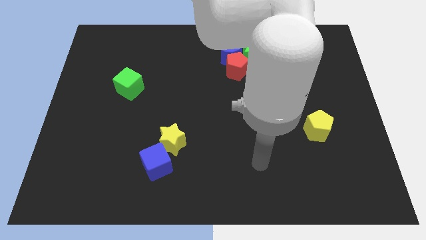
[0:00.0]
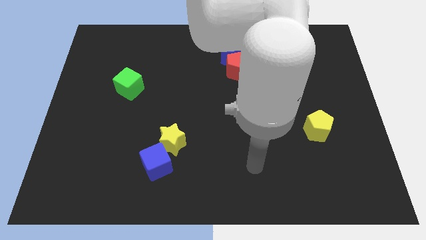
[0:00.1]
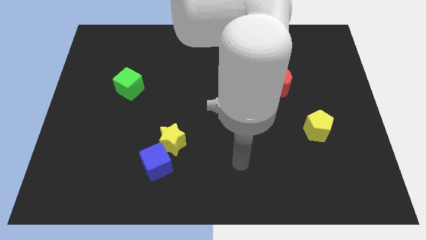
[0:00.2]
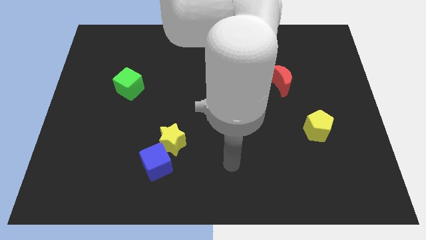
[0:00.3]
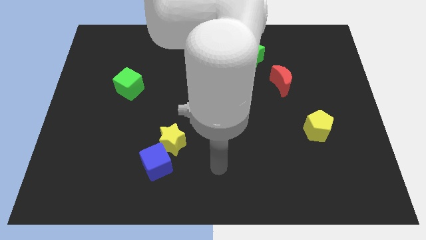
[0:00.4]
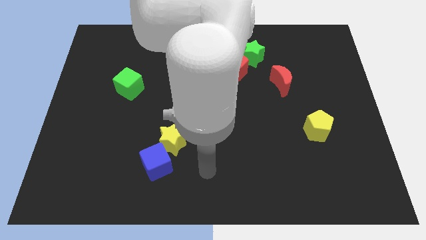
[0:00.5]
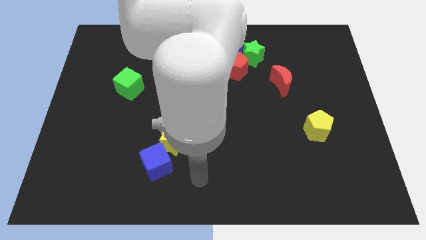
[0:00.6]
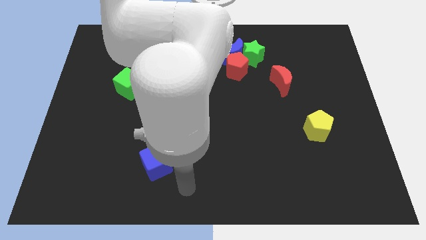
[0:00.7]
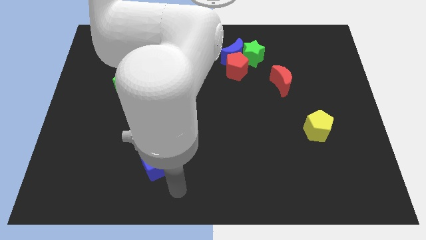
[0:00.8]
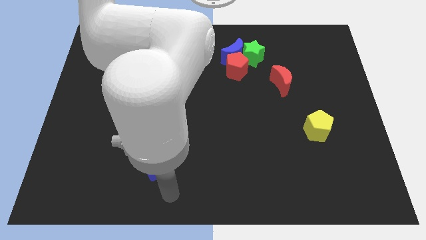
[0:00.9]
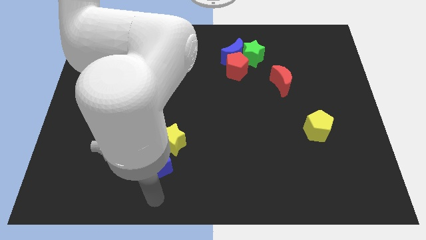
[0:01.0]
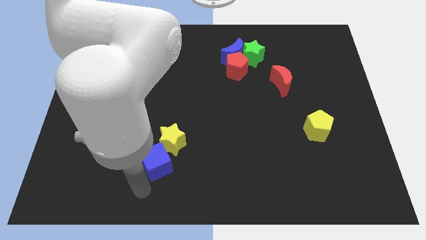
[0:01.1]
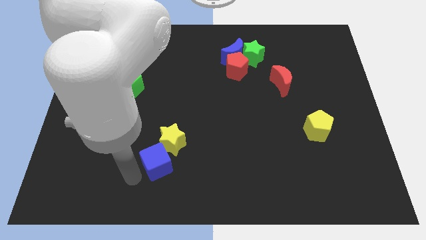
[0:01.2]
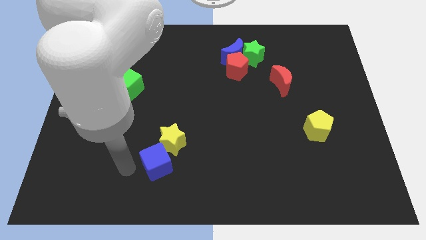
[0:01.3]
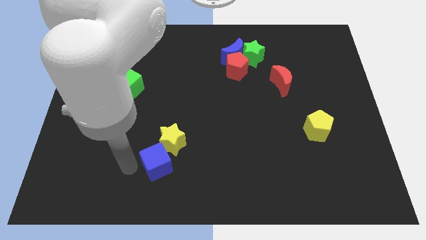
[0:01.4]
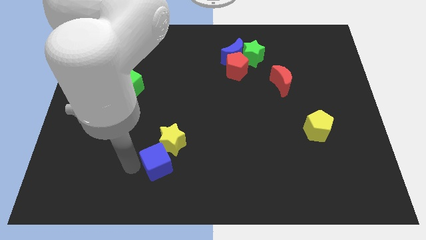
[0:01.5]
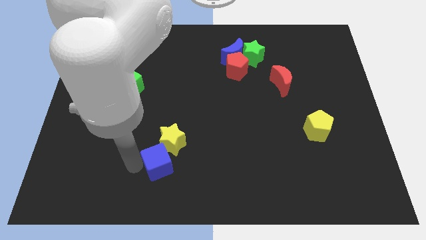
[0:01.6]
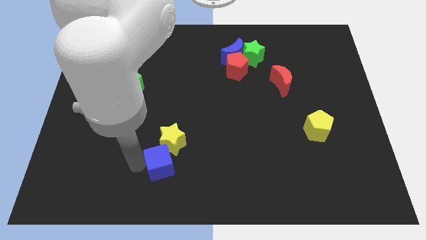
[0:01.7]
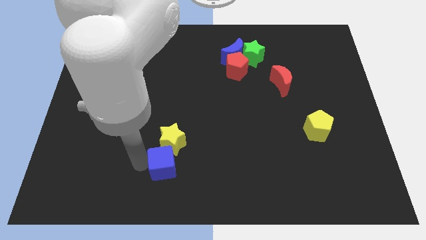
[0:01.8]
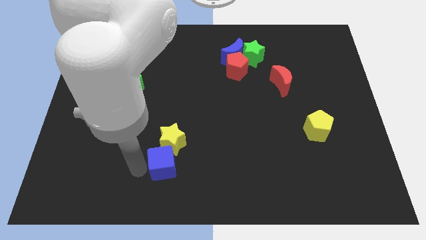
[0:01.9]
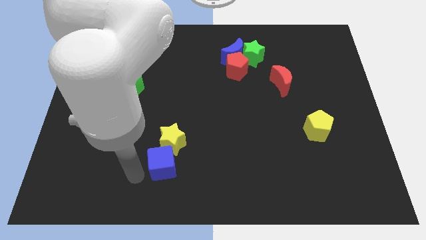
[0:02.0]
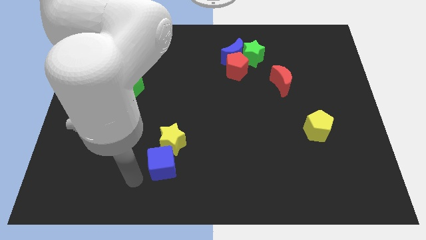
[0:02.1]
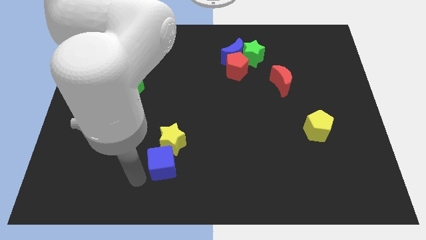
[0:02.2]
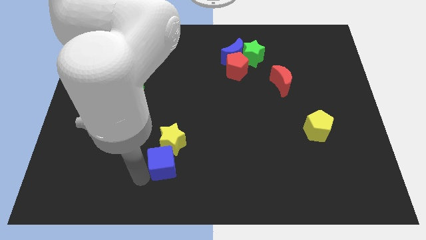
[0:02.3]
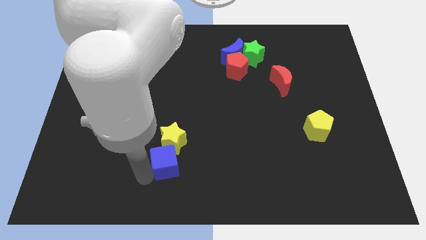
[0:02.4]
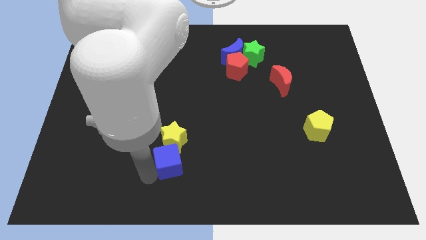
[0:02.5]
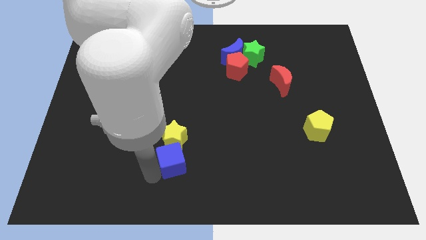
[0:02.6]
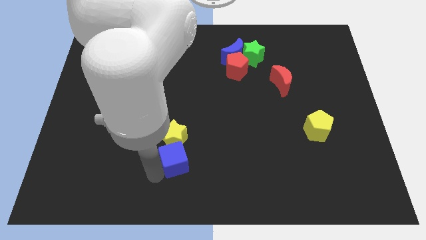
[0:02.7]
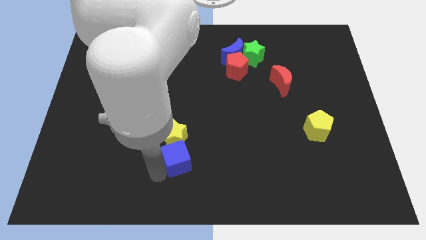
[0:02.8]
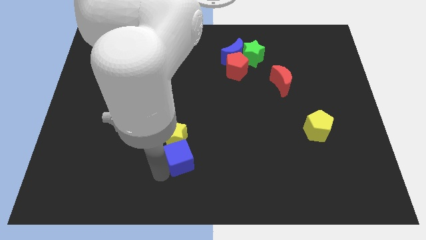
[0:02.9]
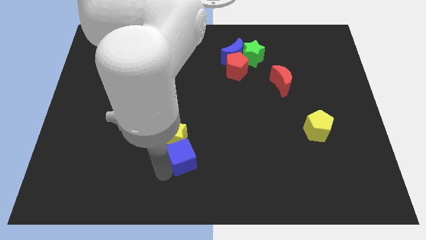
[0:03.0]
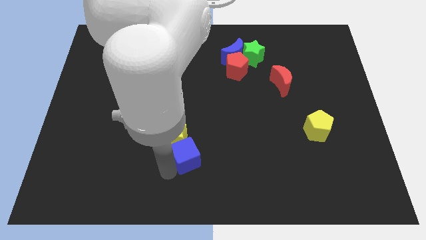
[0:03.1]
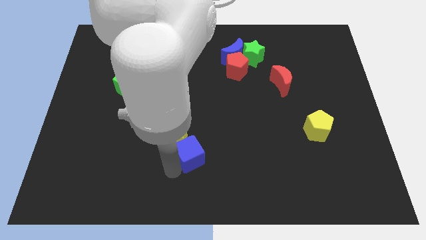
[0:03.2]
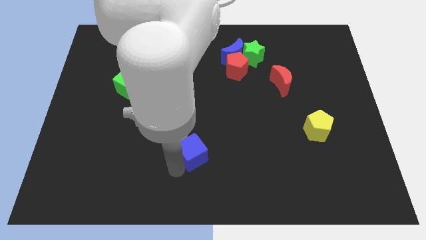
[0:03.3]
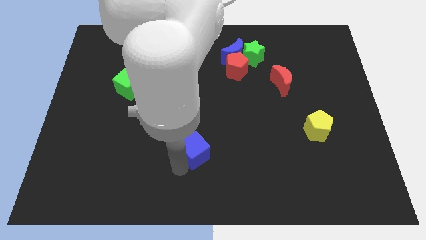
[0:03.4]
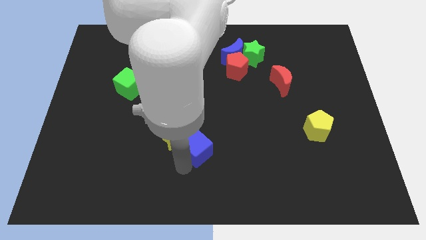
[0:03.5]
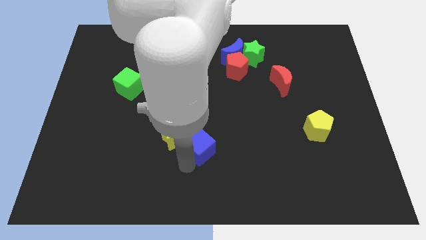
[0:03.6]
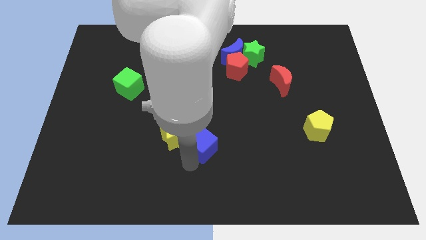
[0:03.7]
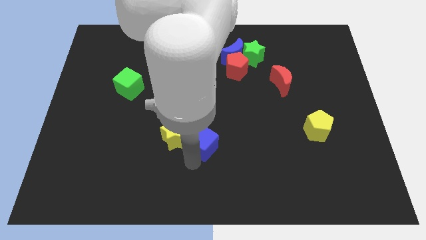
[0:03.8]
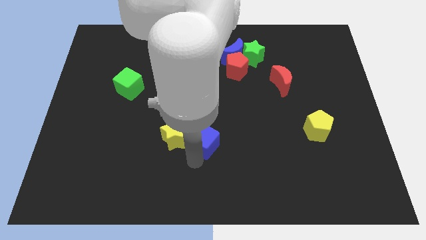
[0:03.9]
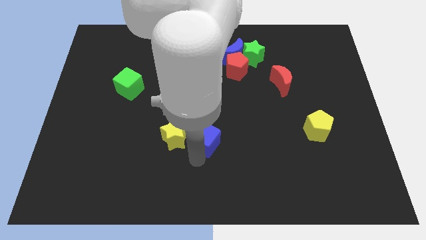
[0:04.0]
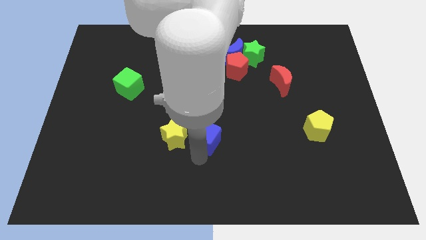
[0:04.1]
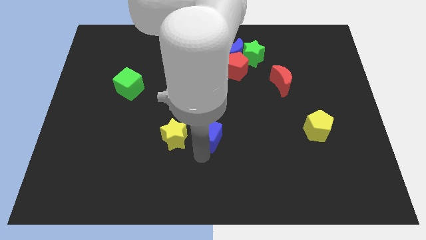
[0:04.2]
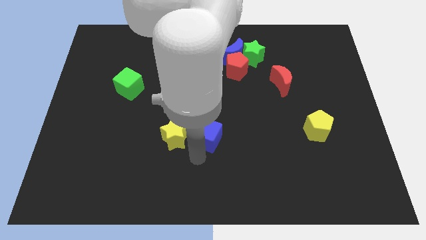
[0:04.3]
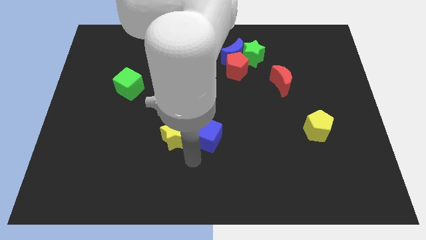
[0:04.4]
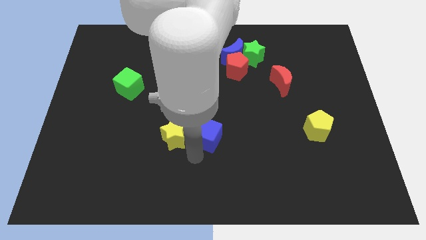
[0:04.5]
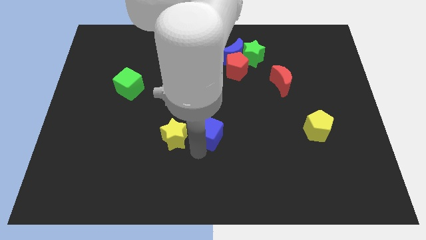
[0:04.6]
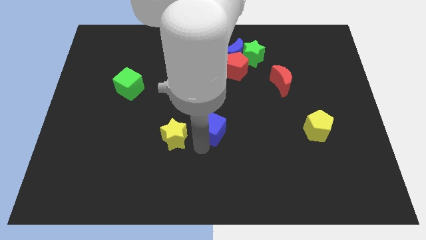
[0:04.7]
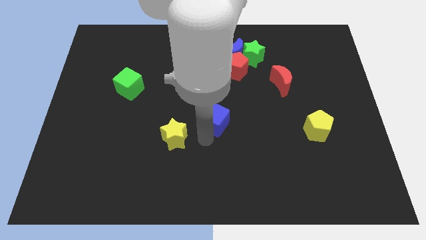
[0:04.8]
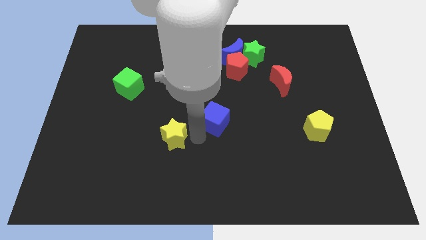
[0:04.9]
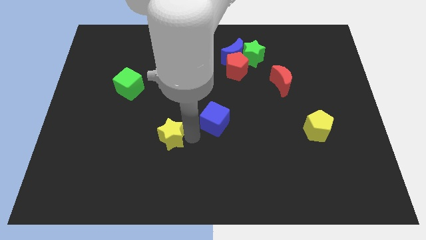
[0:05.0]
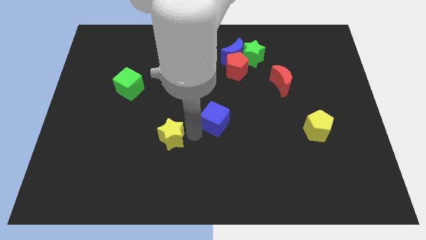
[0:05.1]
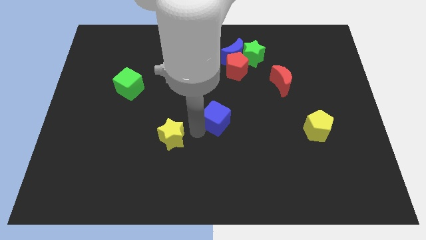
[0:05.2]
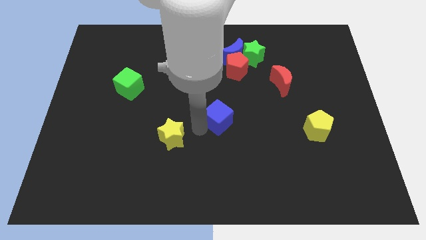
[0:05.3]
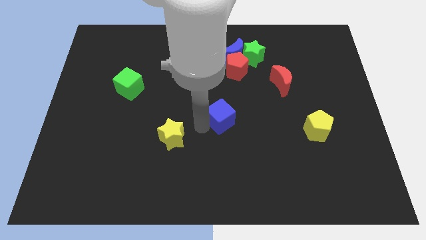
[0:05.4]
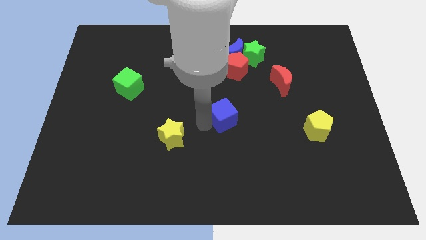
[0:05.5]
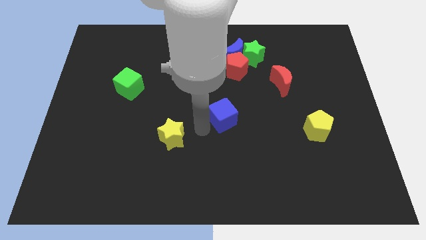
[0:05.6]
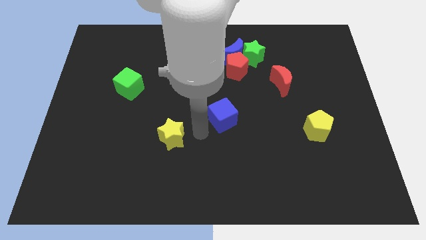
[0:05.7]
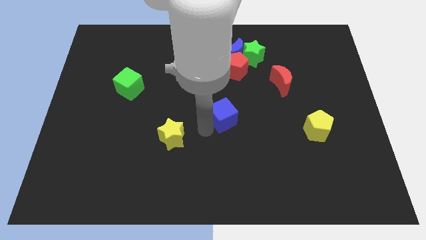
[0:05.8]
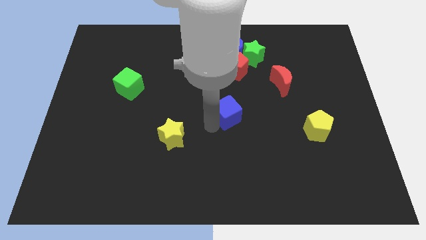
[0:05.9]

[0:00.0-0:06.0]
push the blue cube up and then right

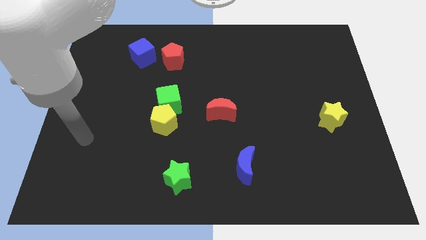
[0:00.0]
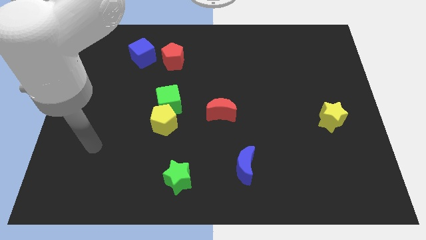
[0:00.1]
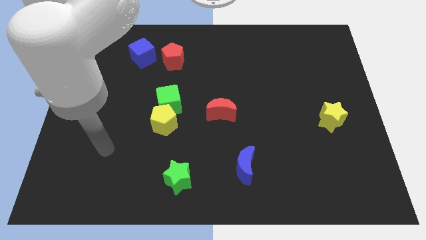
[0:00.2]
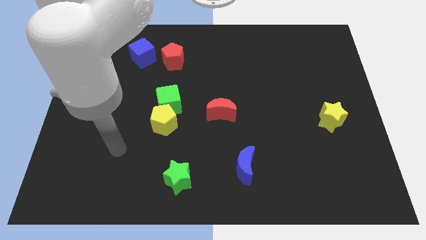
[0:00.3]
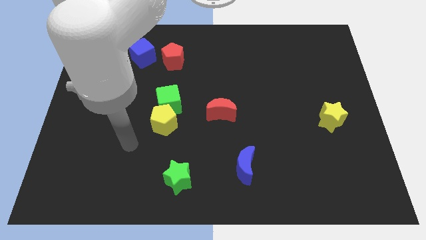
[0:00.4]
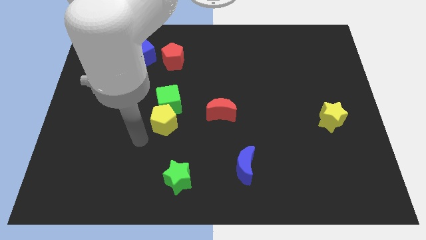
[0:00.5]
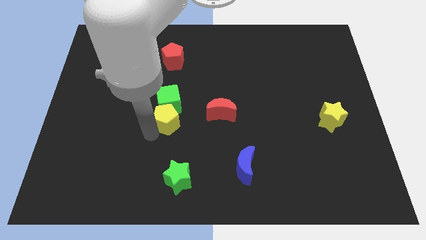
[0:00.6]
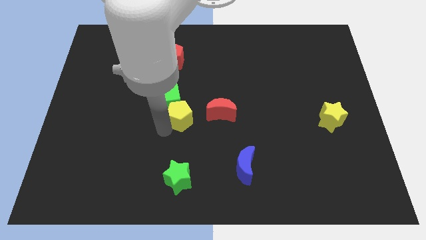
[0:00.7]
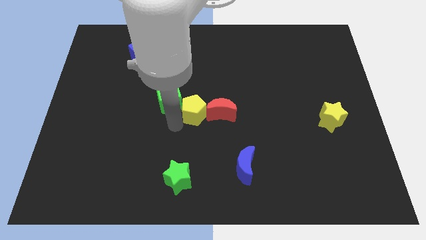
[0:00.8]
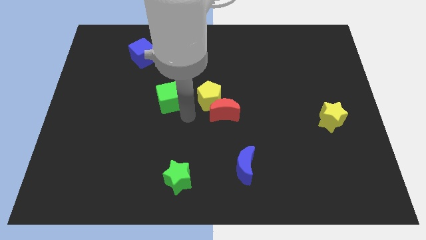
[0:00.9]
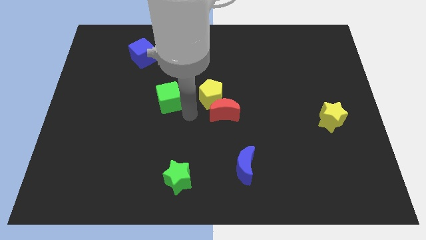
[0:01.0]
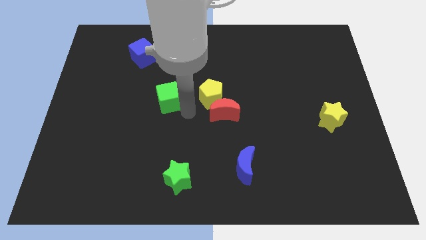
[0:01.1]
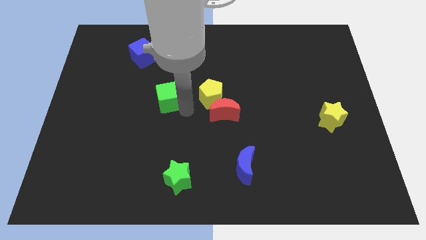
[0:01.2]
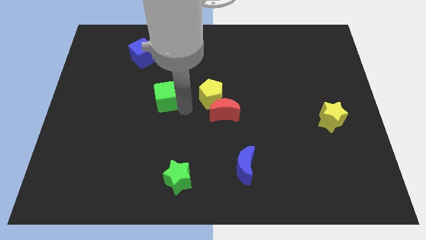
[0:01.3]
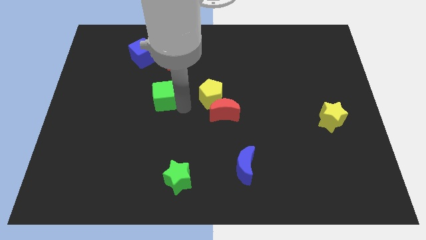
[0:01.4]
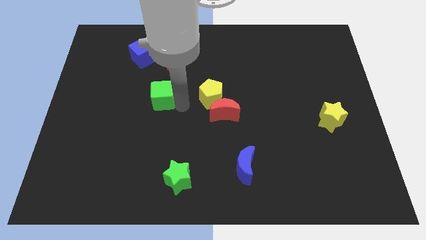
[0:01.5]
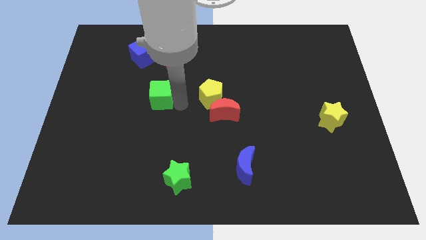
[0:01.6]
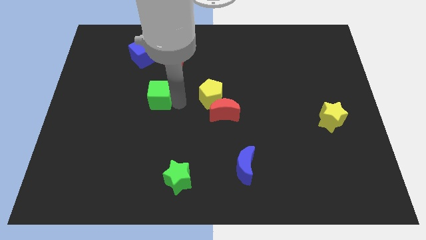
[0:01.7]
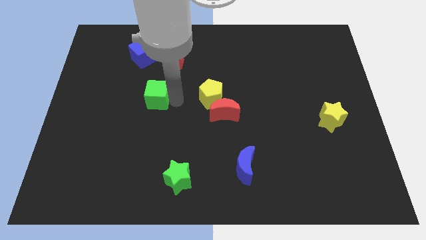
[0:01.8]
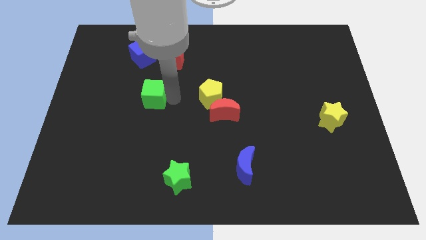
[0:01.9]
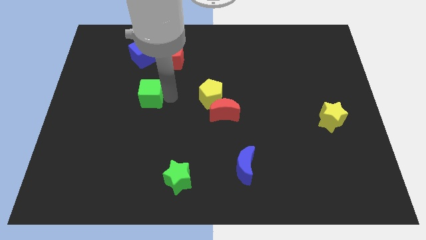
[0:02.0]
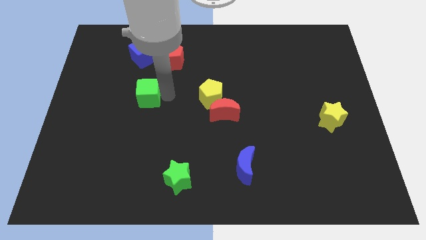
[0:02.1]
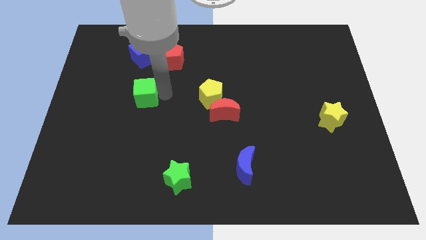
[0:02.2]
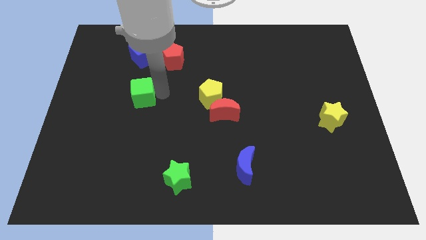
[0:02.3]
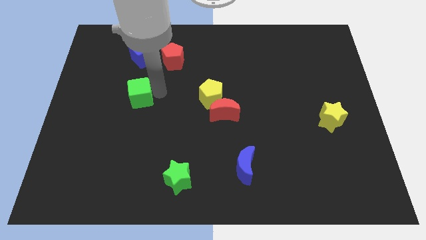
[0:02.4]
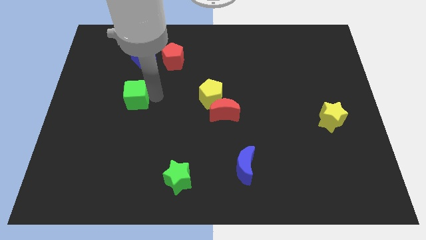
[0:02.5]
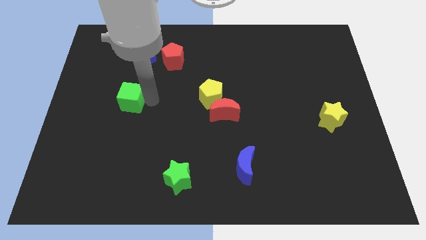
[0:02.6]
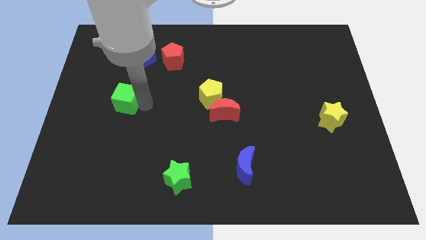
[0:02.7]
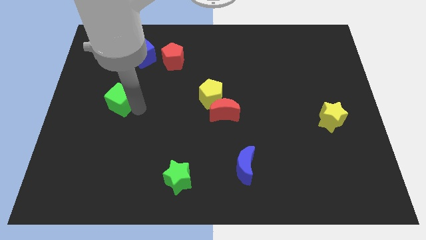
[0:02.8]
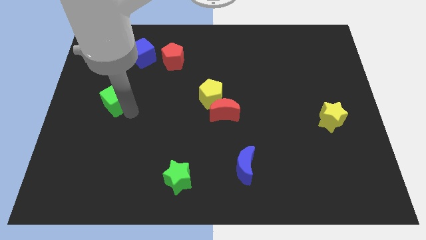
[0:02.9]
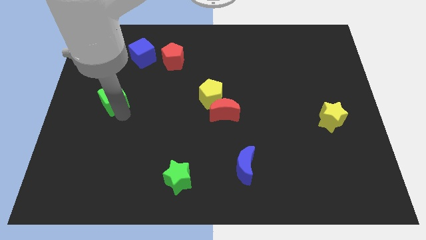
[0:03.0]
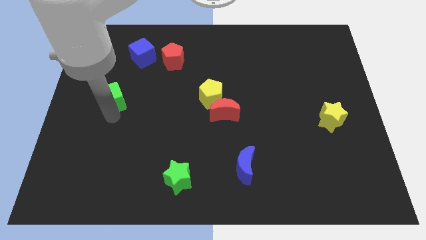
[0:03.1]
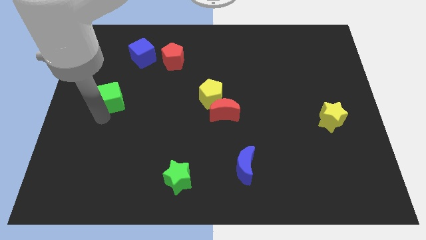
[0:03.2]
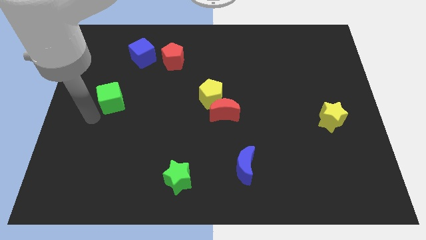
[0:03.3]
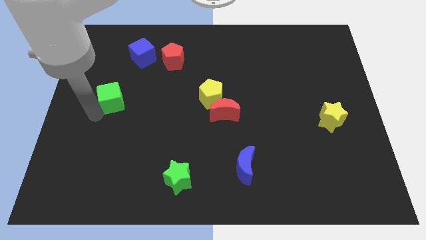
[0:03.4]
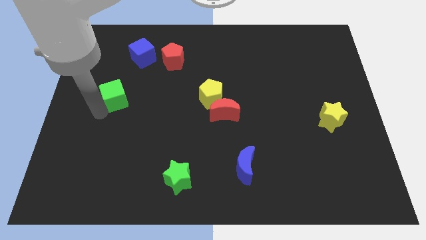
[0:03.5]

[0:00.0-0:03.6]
slide the green cube a little upwards and then left
